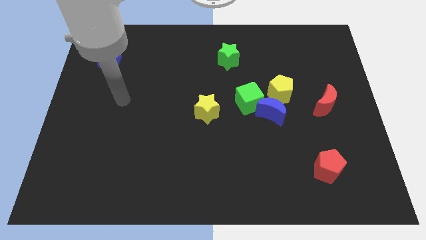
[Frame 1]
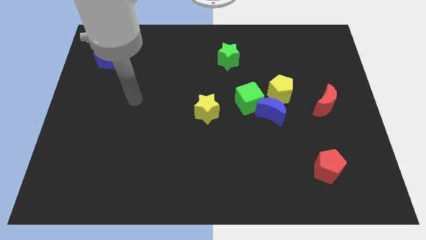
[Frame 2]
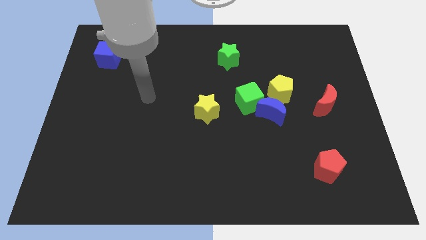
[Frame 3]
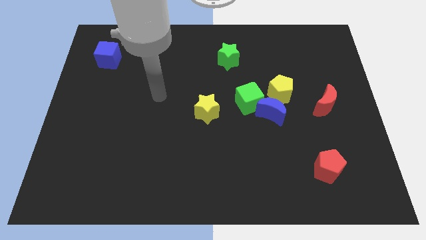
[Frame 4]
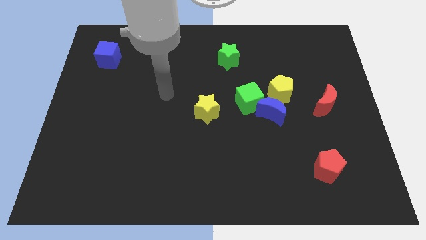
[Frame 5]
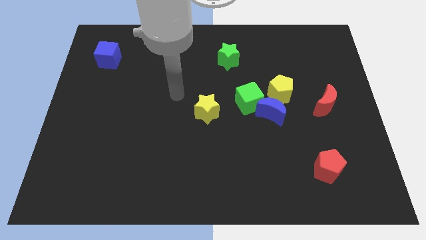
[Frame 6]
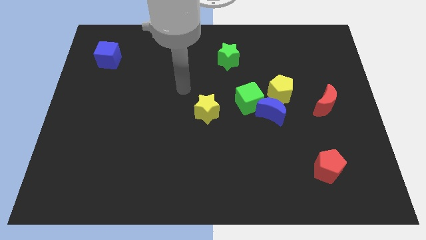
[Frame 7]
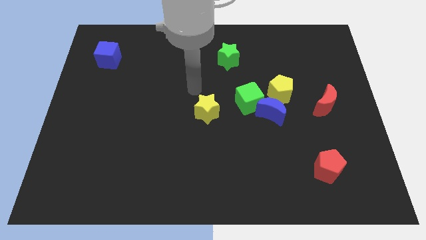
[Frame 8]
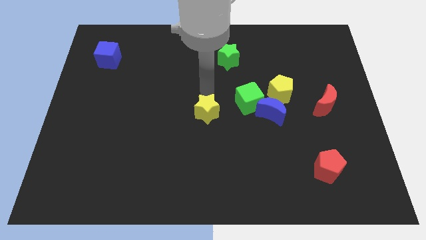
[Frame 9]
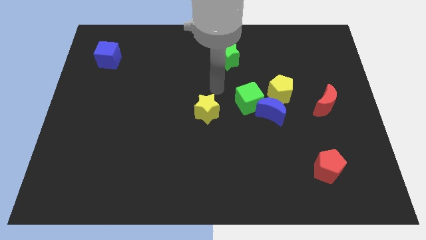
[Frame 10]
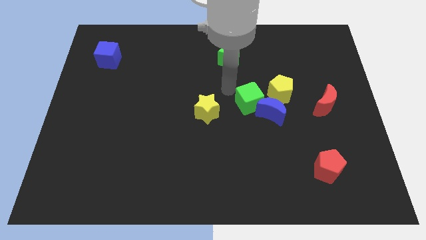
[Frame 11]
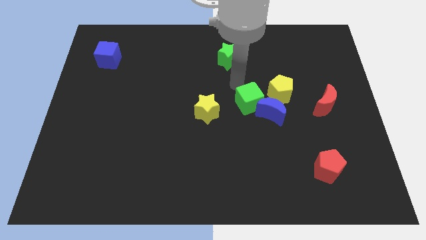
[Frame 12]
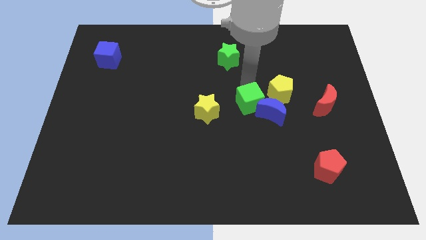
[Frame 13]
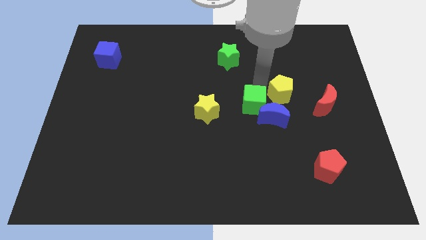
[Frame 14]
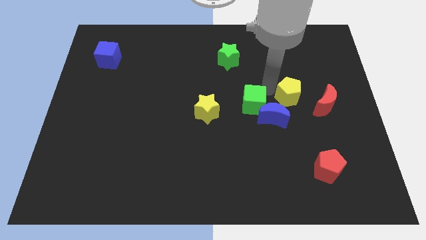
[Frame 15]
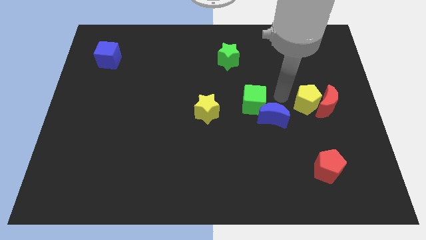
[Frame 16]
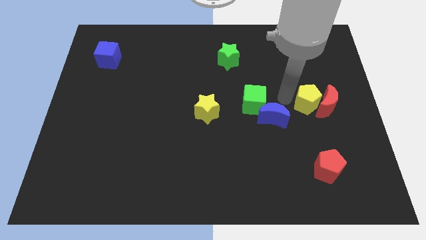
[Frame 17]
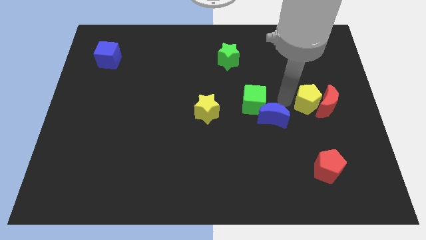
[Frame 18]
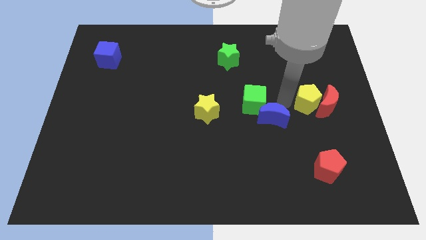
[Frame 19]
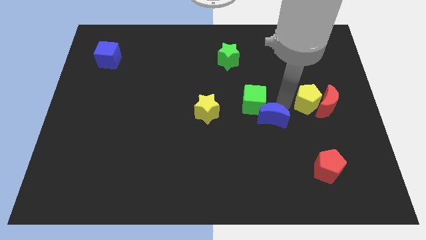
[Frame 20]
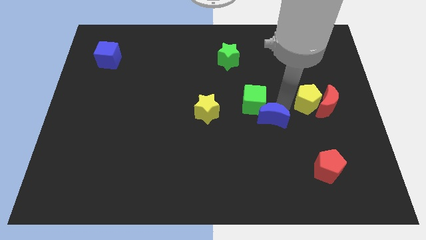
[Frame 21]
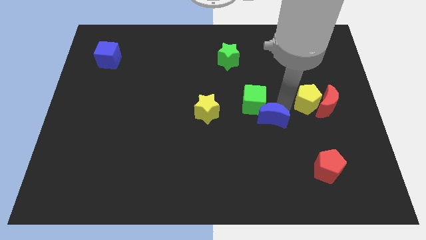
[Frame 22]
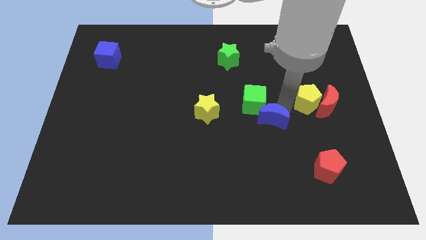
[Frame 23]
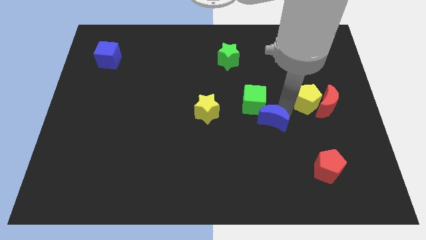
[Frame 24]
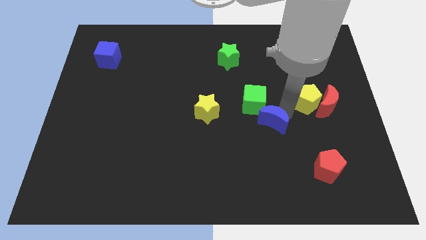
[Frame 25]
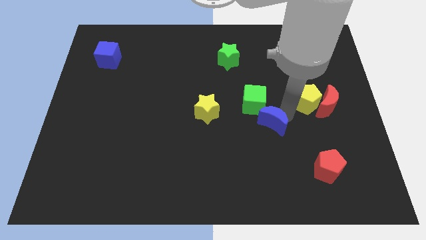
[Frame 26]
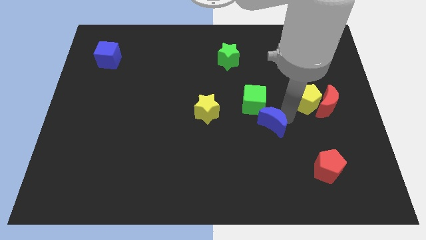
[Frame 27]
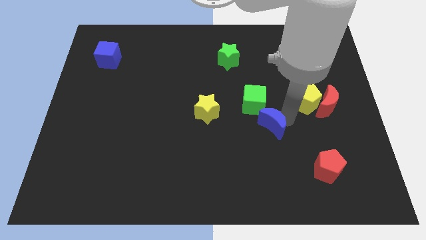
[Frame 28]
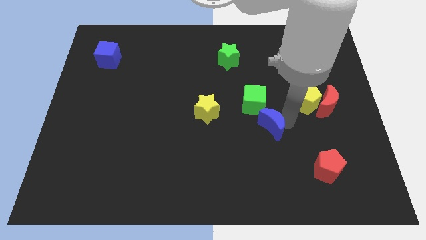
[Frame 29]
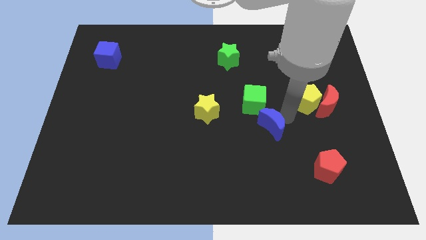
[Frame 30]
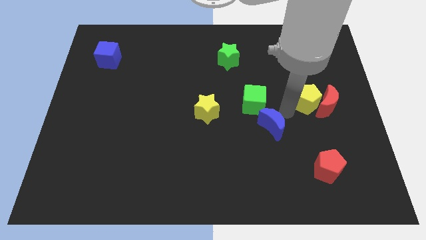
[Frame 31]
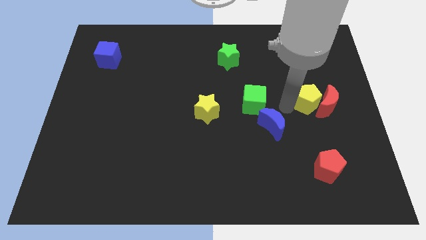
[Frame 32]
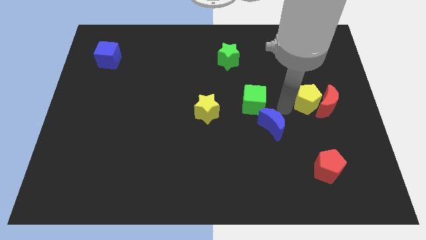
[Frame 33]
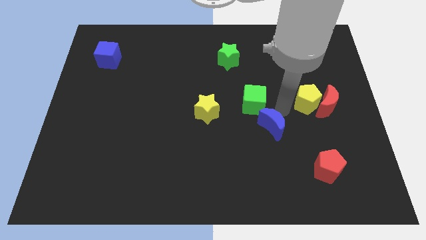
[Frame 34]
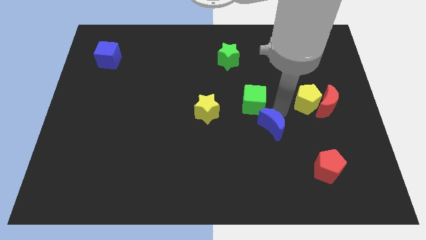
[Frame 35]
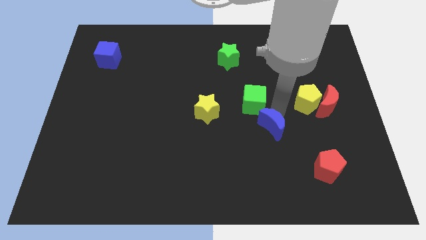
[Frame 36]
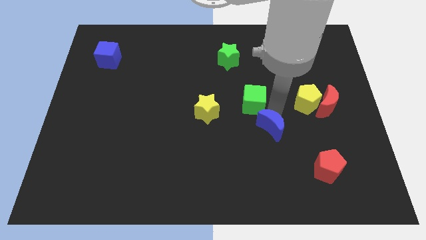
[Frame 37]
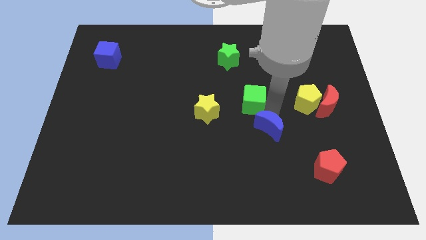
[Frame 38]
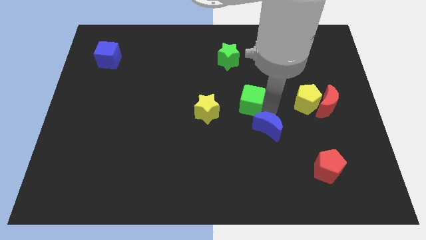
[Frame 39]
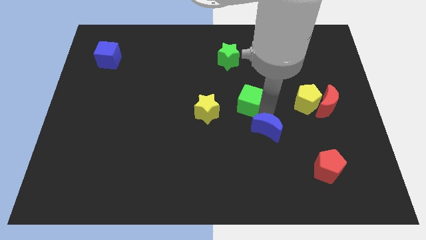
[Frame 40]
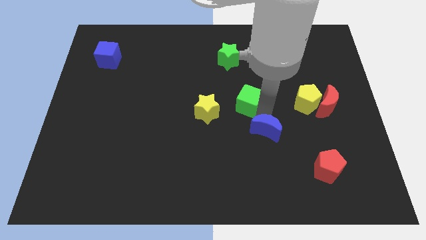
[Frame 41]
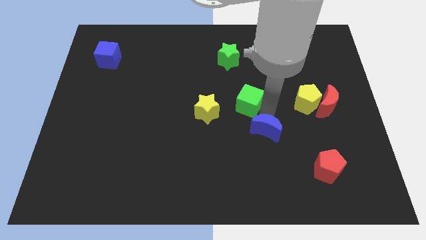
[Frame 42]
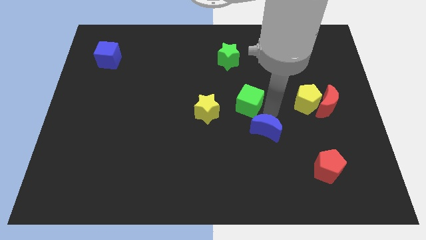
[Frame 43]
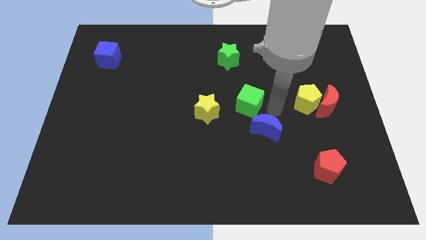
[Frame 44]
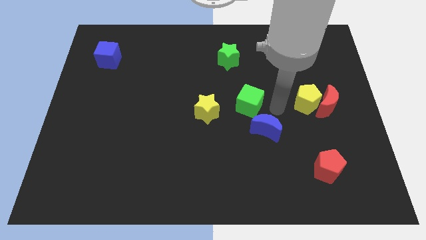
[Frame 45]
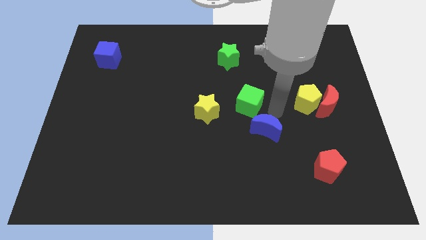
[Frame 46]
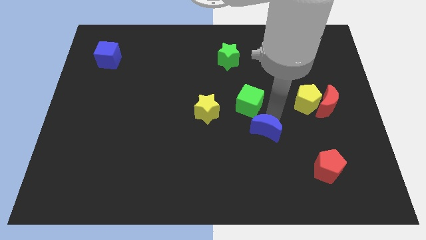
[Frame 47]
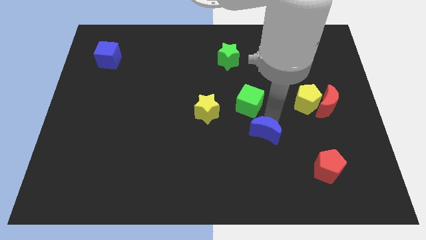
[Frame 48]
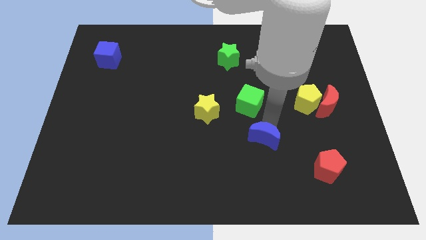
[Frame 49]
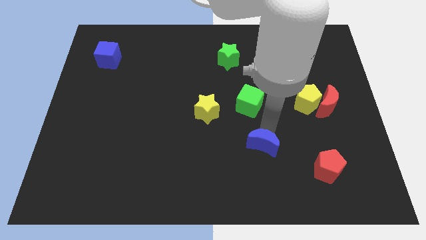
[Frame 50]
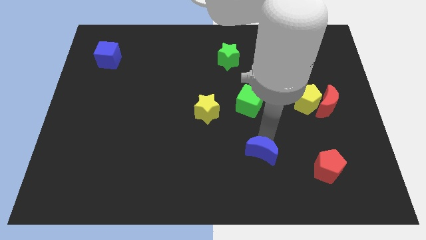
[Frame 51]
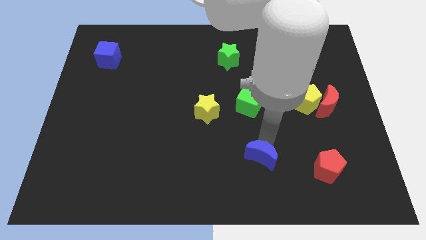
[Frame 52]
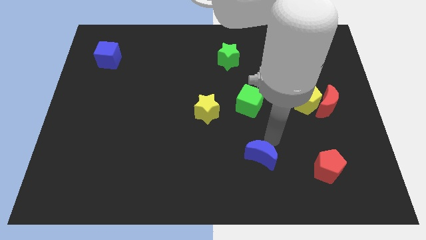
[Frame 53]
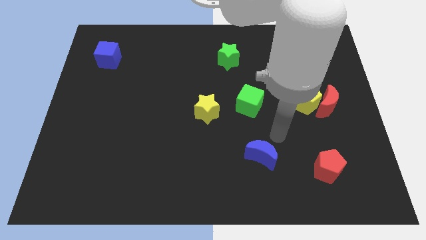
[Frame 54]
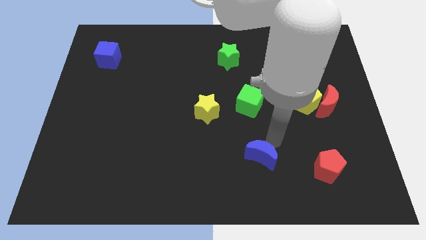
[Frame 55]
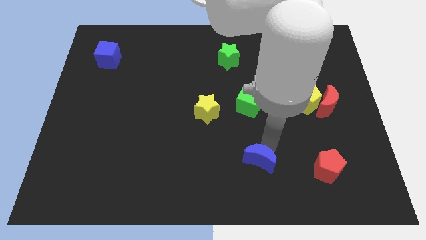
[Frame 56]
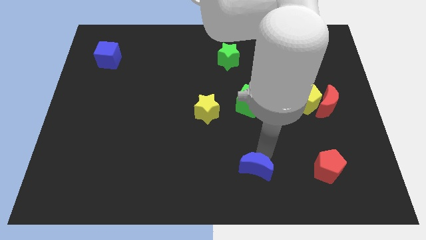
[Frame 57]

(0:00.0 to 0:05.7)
move the blue moon to the bottom side

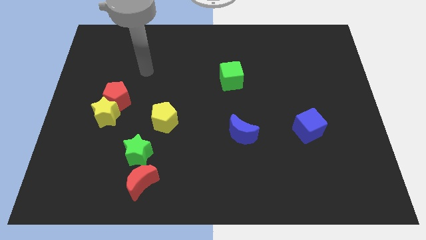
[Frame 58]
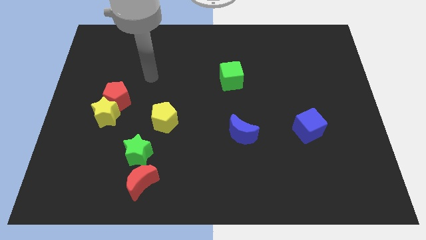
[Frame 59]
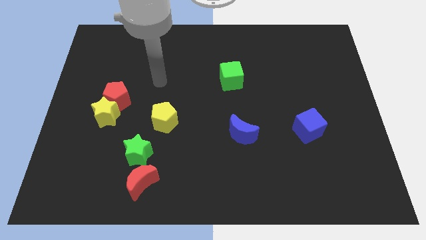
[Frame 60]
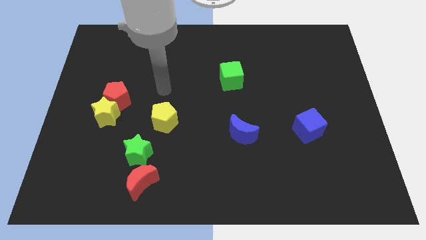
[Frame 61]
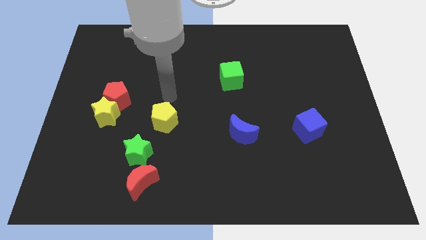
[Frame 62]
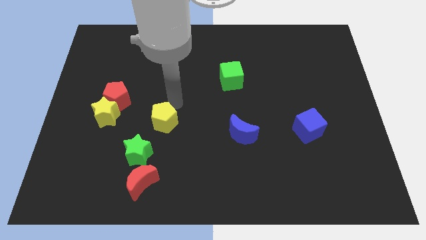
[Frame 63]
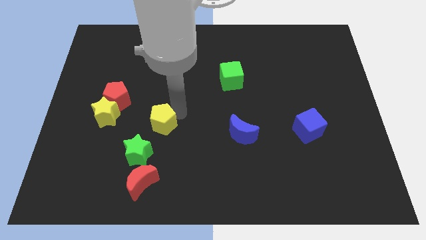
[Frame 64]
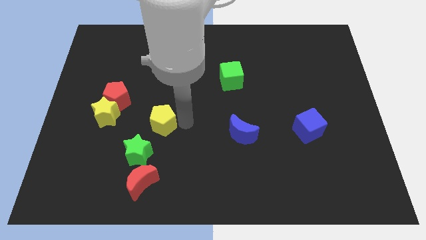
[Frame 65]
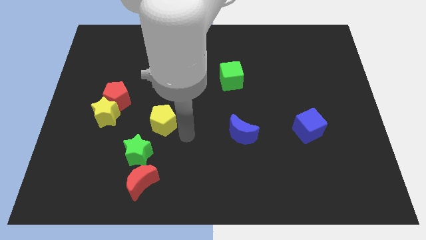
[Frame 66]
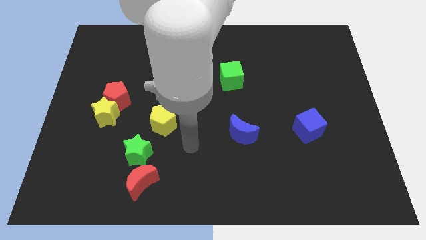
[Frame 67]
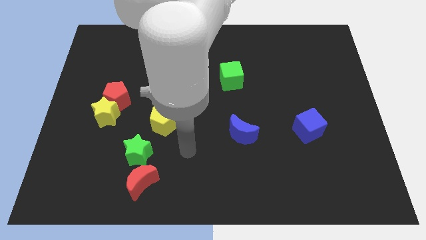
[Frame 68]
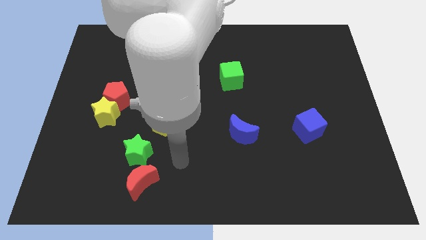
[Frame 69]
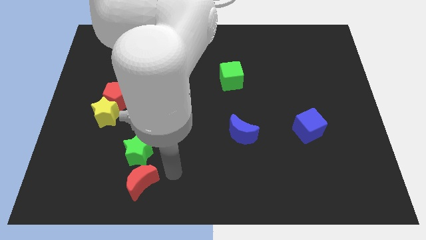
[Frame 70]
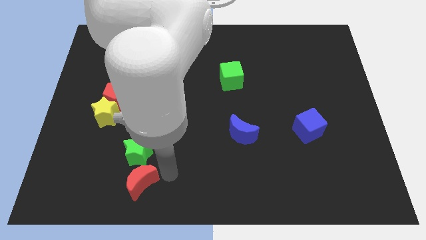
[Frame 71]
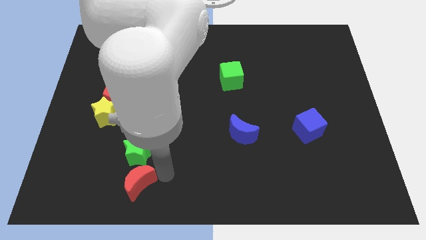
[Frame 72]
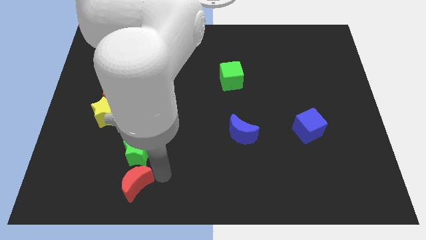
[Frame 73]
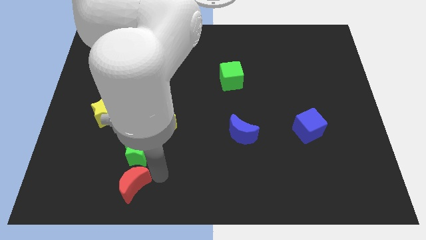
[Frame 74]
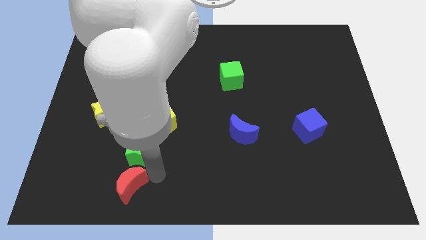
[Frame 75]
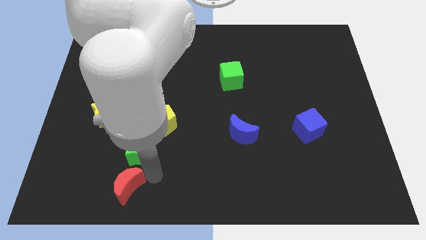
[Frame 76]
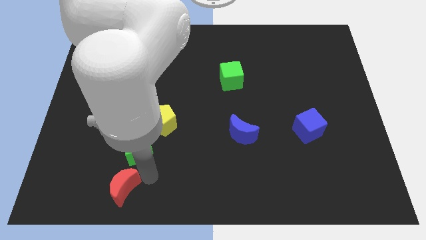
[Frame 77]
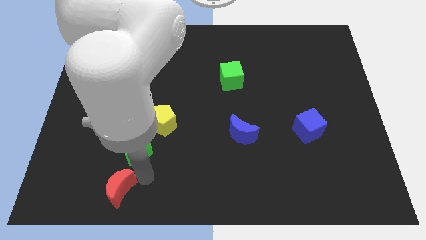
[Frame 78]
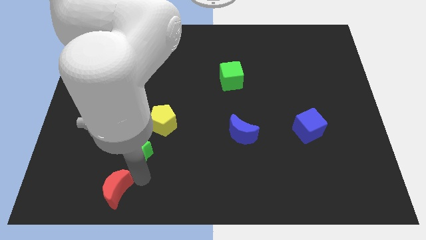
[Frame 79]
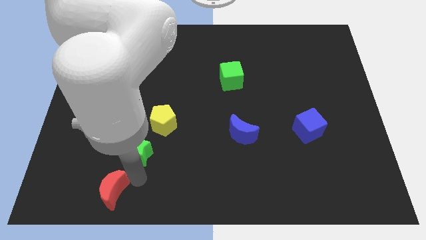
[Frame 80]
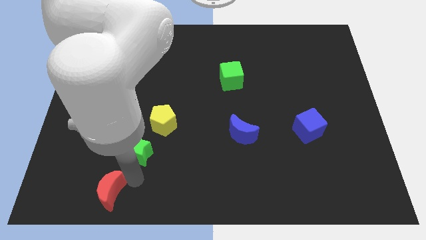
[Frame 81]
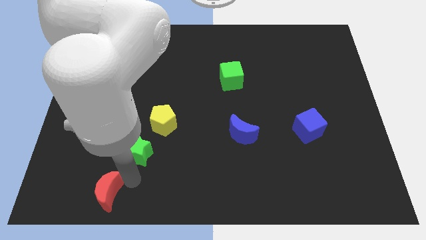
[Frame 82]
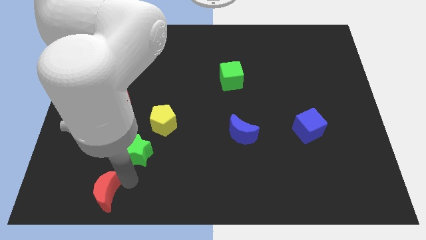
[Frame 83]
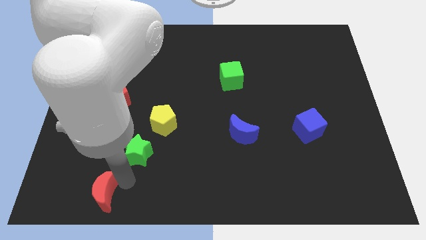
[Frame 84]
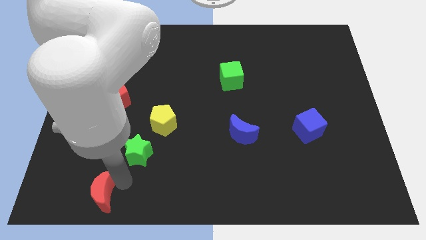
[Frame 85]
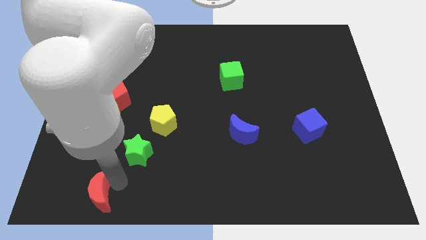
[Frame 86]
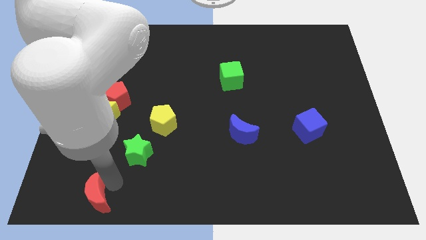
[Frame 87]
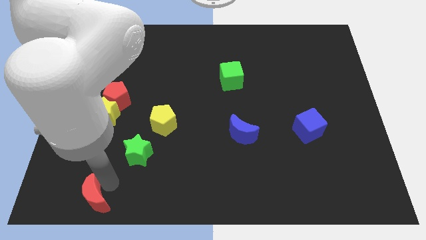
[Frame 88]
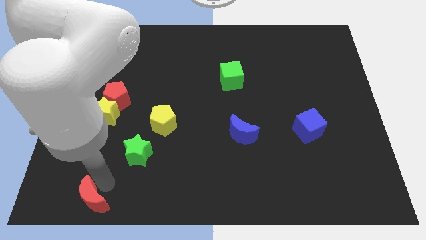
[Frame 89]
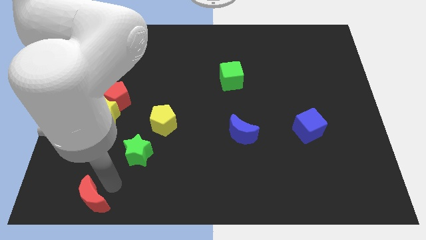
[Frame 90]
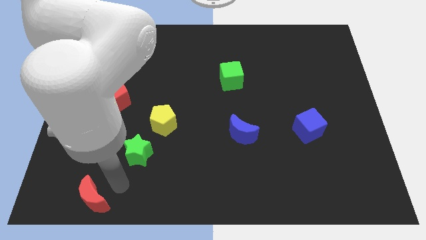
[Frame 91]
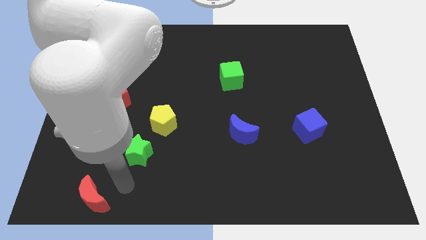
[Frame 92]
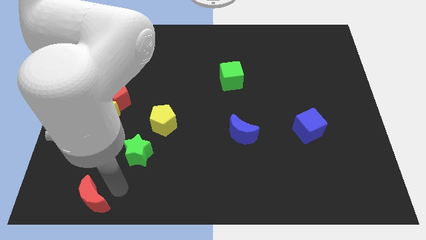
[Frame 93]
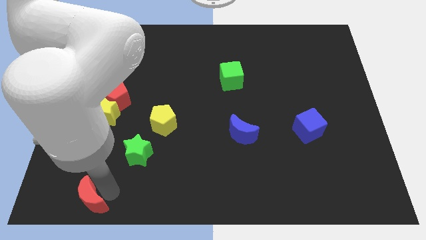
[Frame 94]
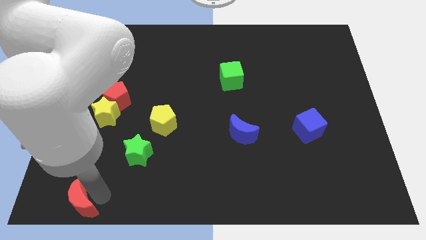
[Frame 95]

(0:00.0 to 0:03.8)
move the red moon to the lower left corner
